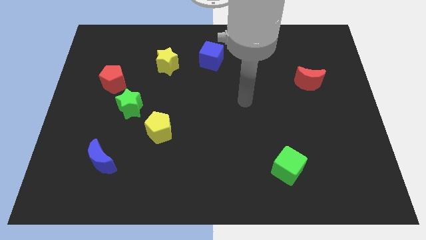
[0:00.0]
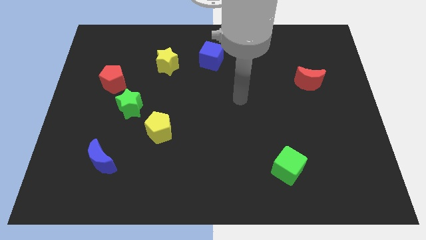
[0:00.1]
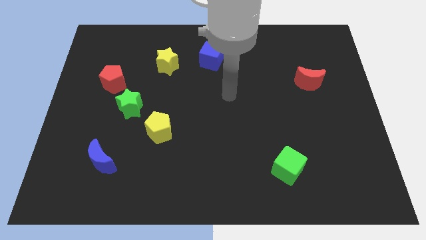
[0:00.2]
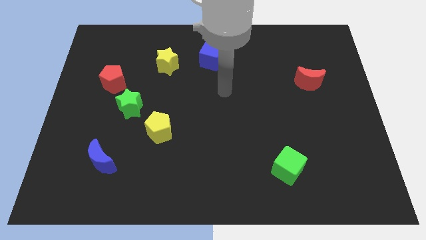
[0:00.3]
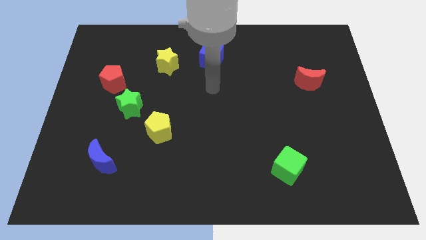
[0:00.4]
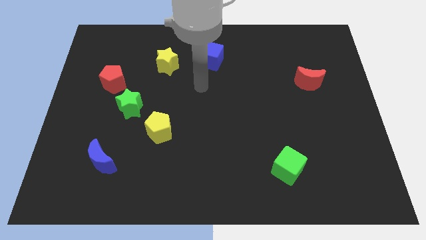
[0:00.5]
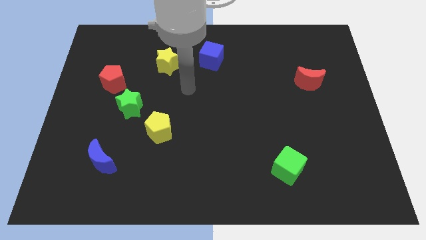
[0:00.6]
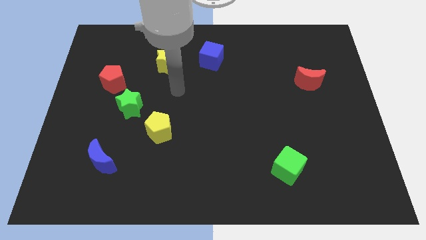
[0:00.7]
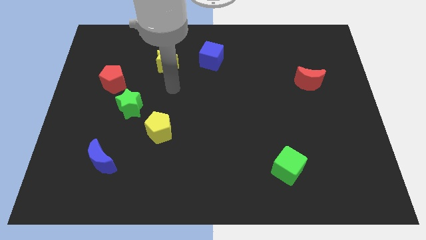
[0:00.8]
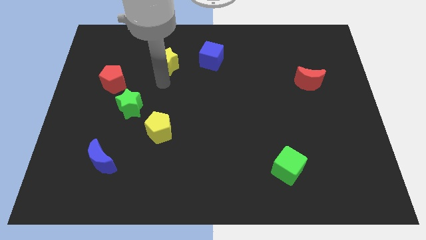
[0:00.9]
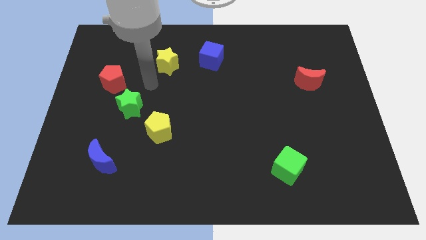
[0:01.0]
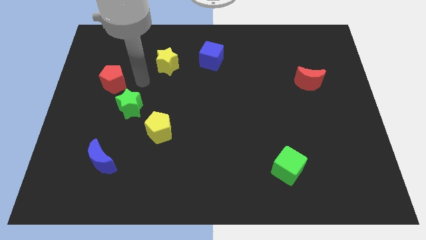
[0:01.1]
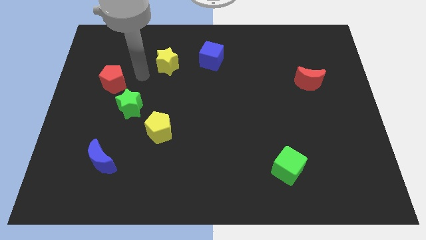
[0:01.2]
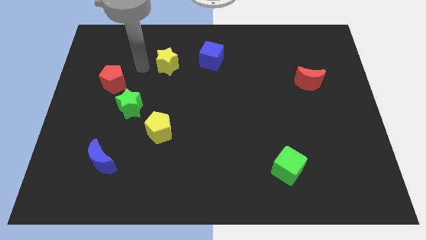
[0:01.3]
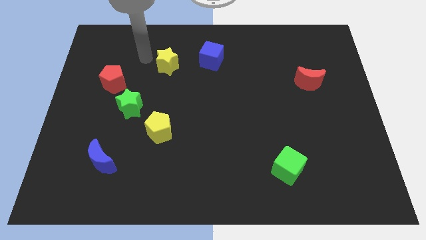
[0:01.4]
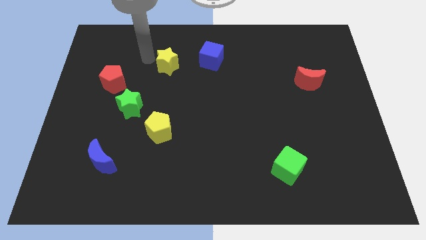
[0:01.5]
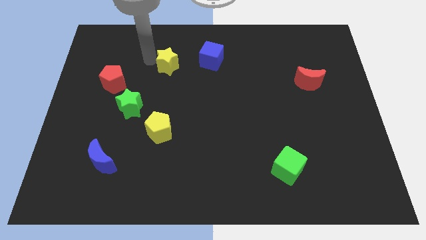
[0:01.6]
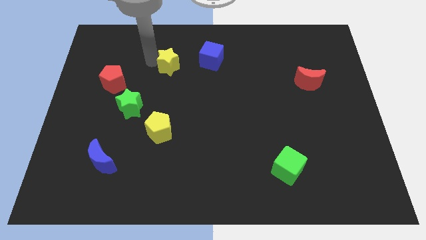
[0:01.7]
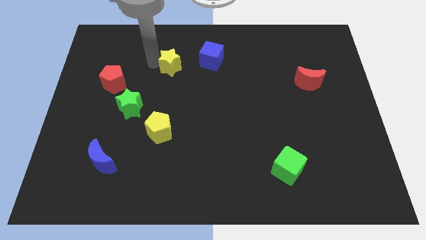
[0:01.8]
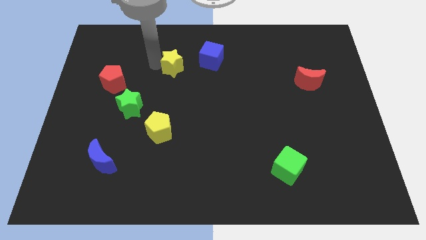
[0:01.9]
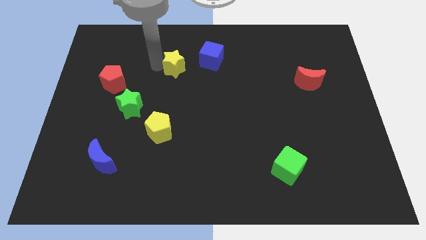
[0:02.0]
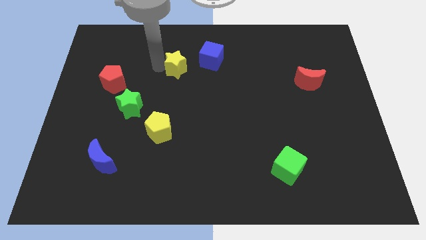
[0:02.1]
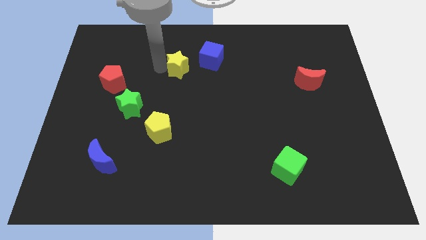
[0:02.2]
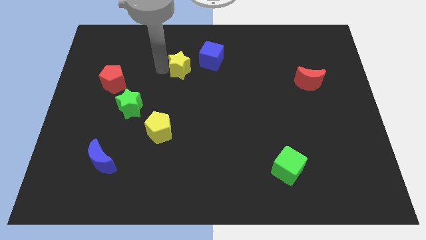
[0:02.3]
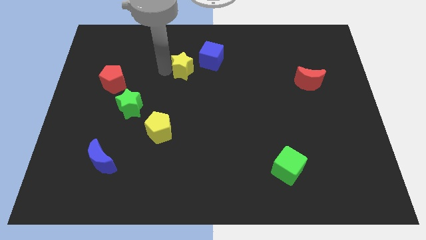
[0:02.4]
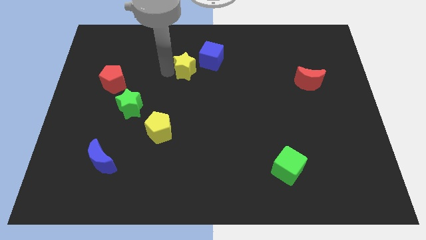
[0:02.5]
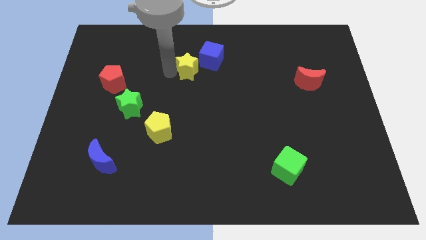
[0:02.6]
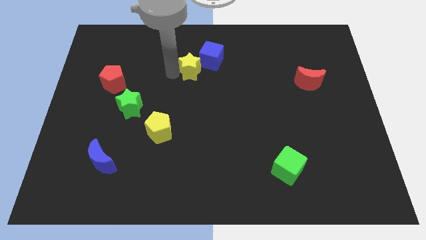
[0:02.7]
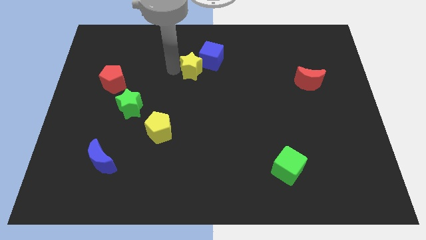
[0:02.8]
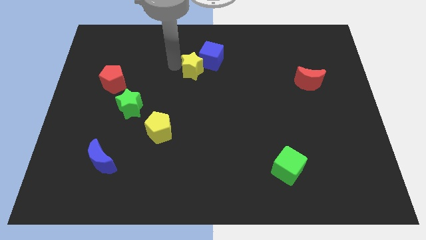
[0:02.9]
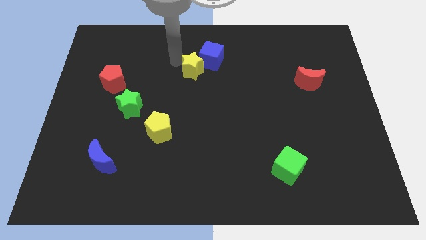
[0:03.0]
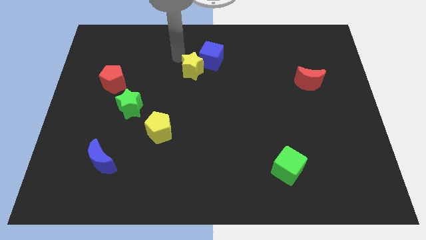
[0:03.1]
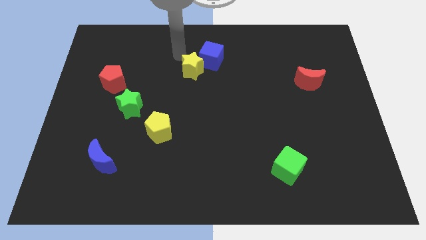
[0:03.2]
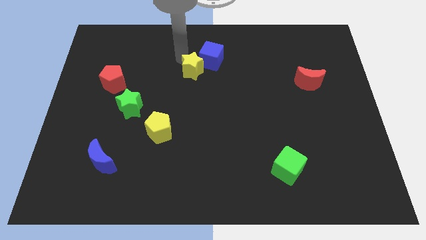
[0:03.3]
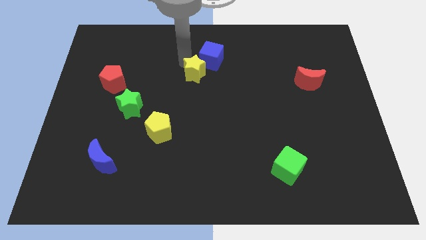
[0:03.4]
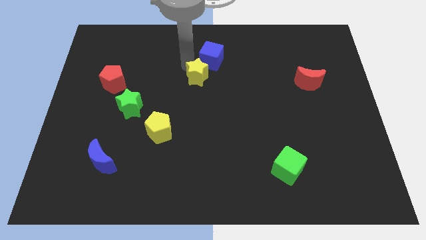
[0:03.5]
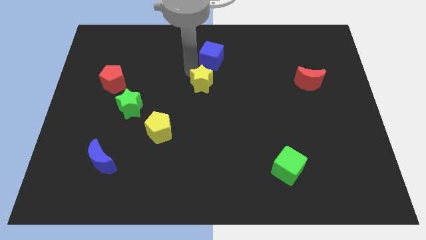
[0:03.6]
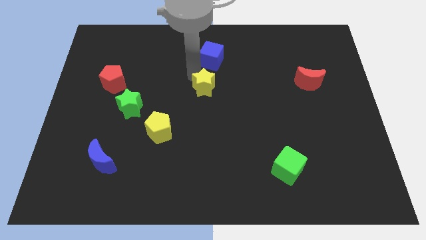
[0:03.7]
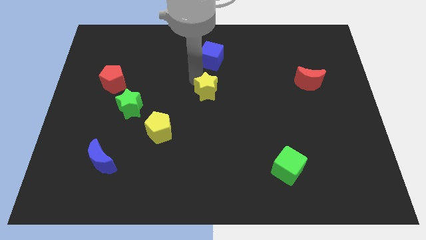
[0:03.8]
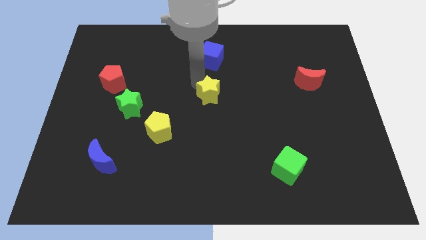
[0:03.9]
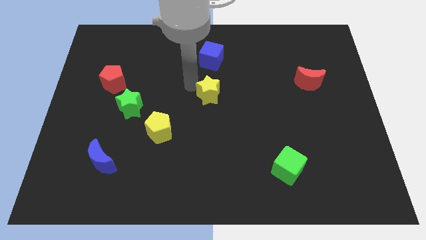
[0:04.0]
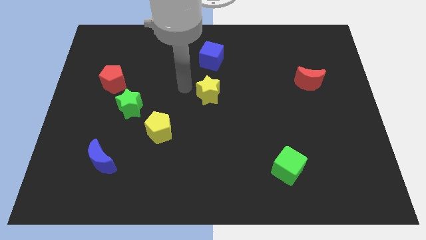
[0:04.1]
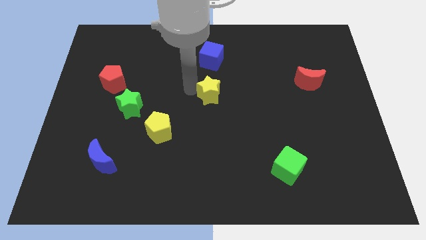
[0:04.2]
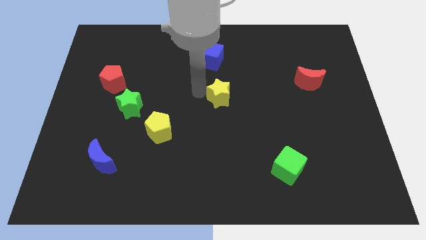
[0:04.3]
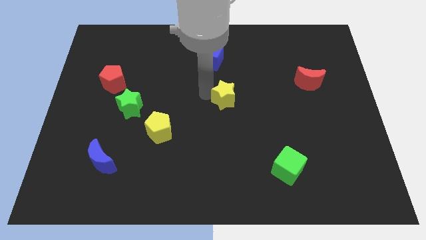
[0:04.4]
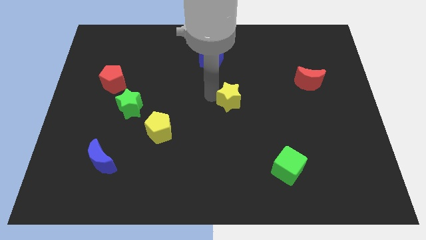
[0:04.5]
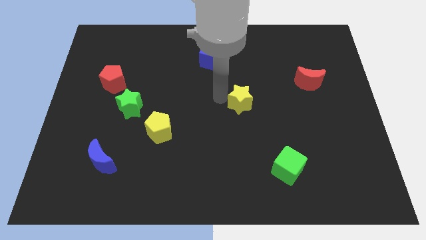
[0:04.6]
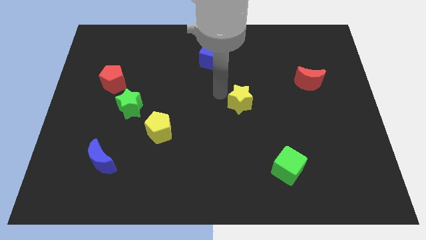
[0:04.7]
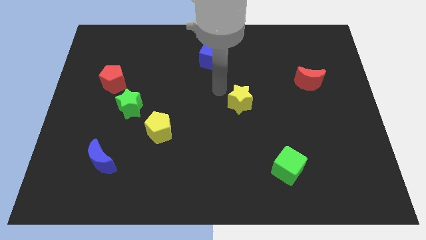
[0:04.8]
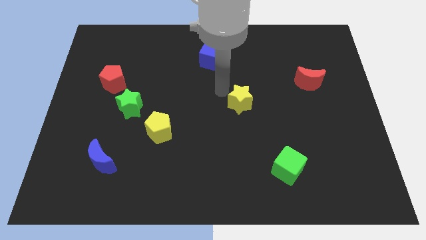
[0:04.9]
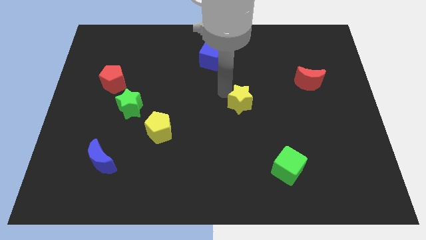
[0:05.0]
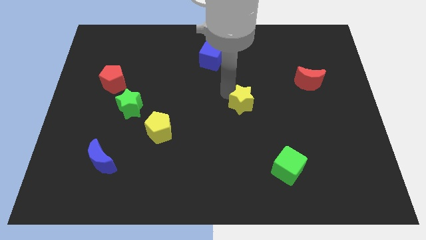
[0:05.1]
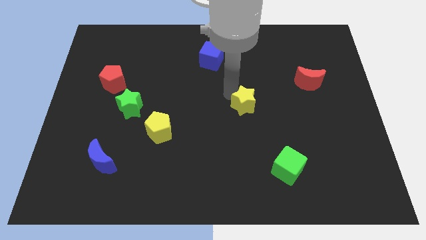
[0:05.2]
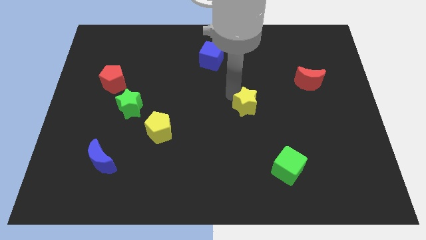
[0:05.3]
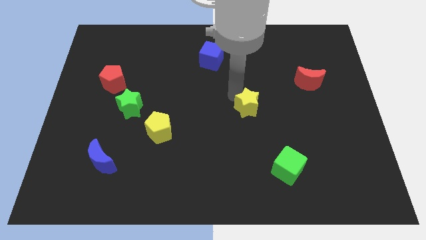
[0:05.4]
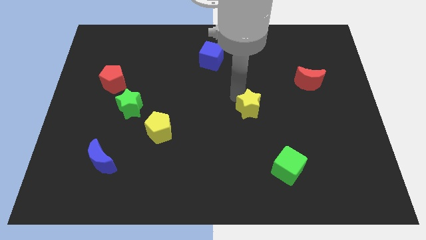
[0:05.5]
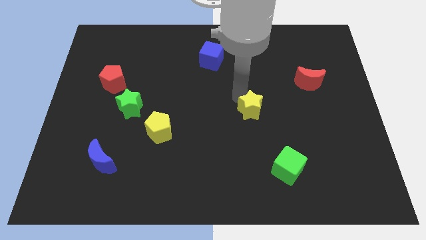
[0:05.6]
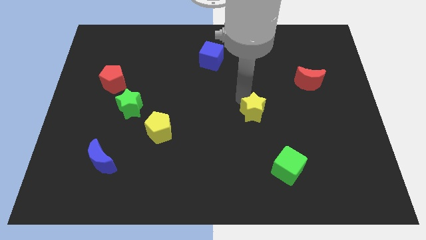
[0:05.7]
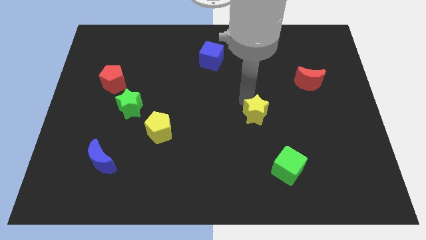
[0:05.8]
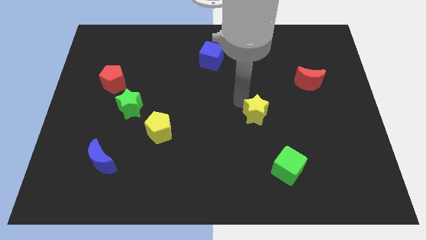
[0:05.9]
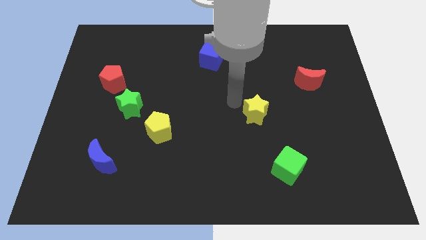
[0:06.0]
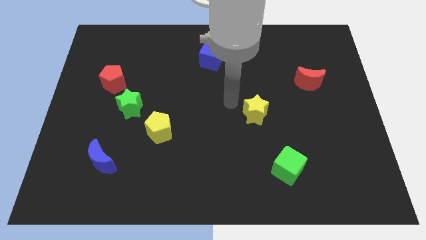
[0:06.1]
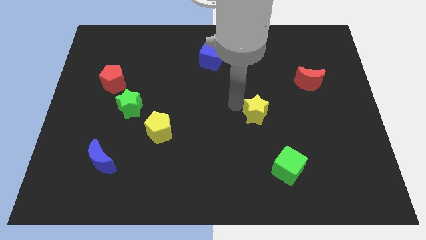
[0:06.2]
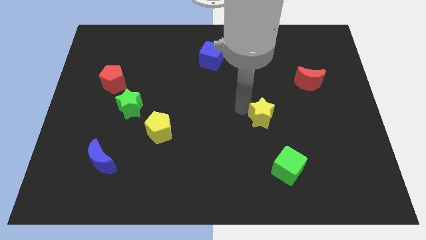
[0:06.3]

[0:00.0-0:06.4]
move the yellow star to the top of the green cube
